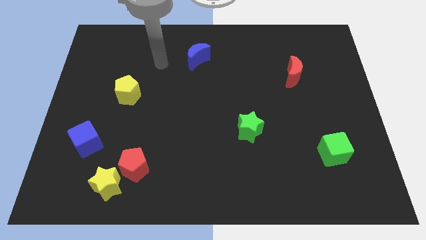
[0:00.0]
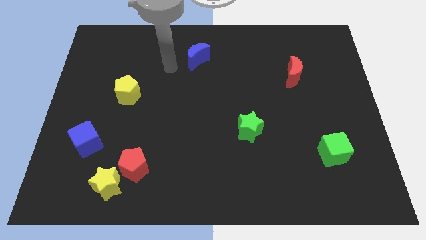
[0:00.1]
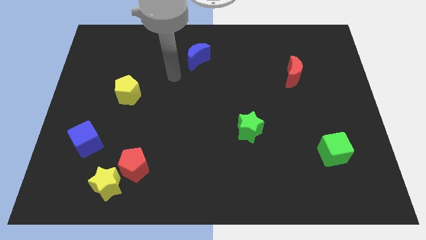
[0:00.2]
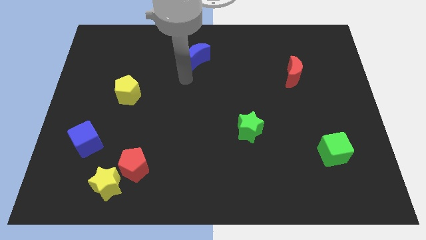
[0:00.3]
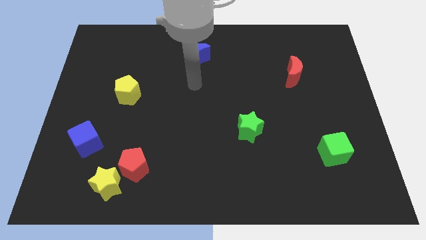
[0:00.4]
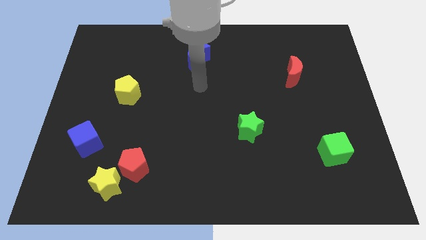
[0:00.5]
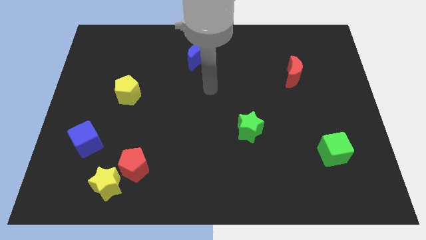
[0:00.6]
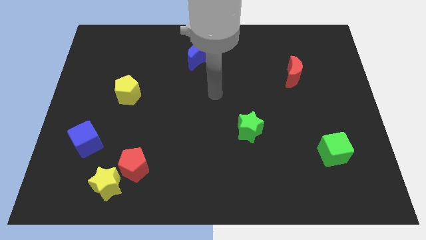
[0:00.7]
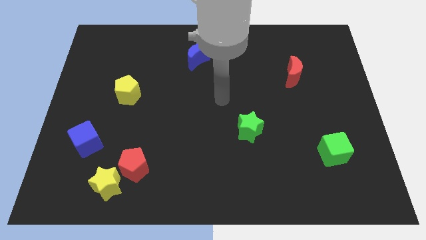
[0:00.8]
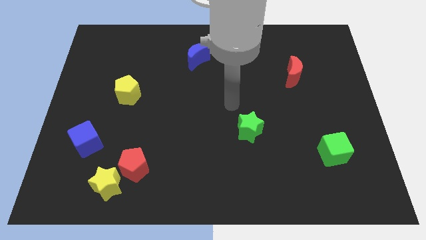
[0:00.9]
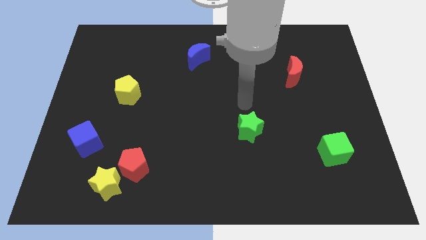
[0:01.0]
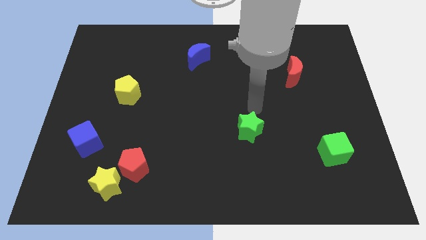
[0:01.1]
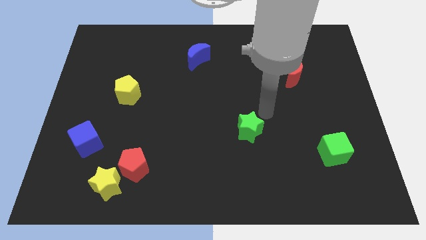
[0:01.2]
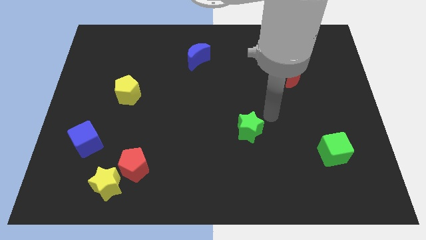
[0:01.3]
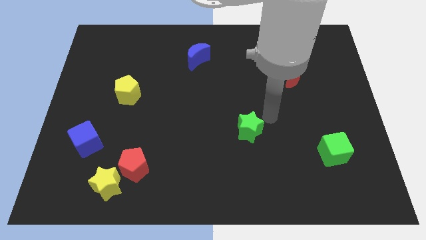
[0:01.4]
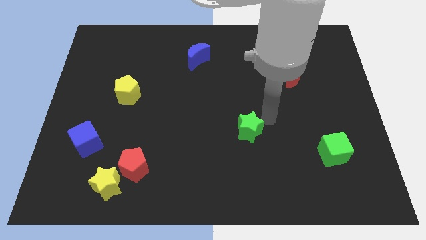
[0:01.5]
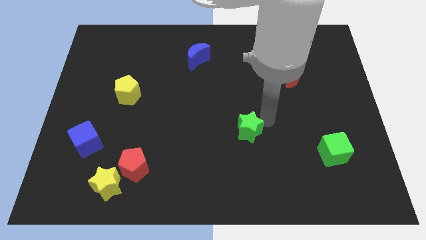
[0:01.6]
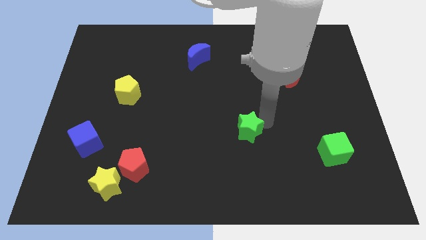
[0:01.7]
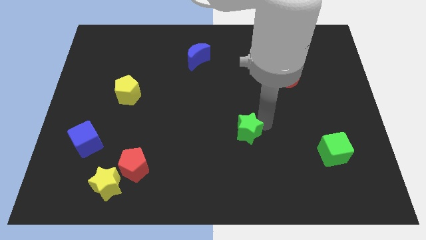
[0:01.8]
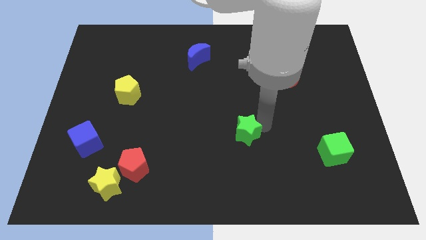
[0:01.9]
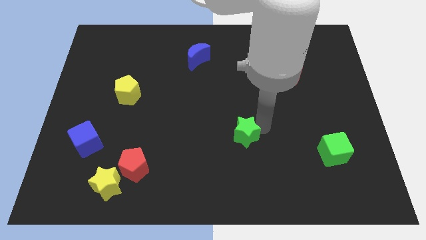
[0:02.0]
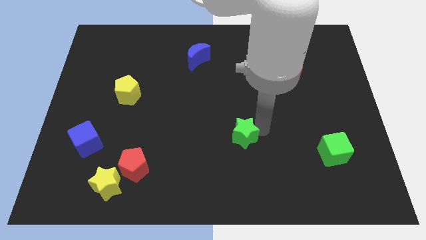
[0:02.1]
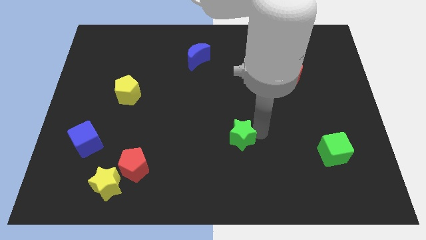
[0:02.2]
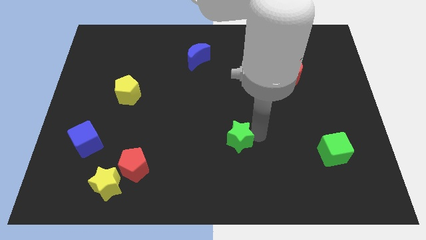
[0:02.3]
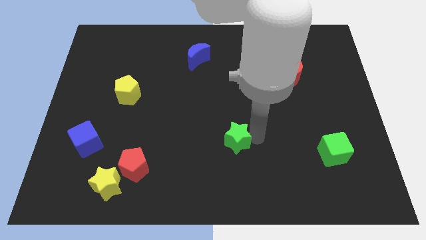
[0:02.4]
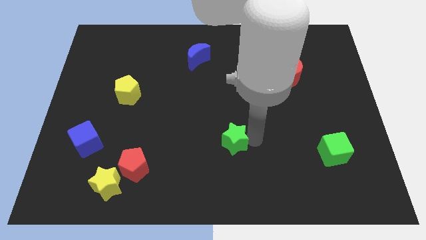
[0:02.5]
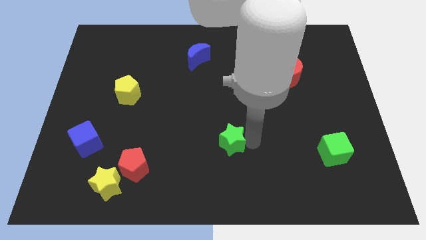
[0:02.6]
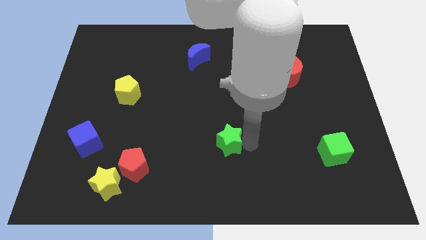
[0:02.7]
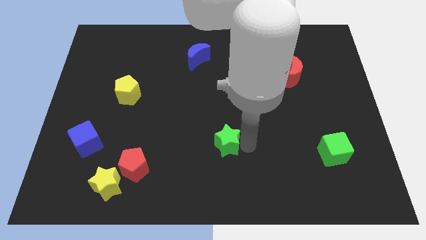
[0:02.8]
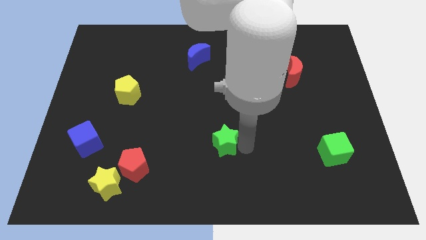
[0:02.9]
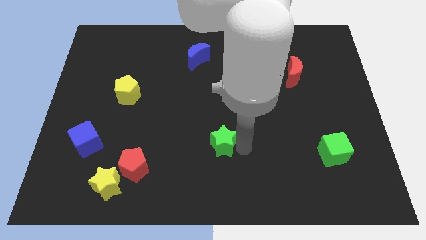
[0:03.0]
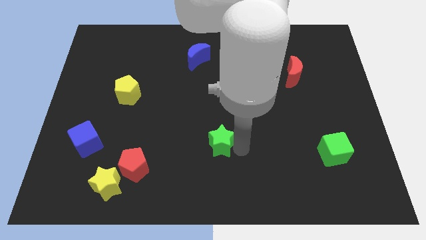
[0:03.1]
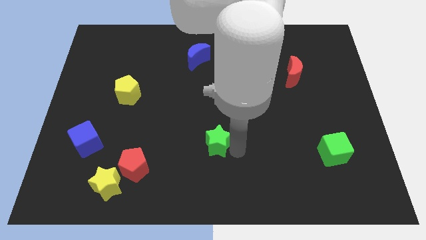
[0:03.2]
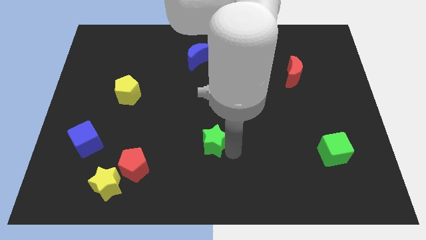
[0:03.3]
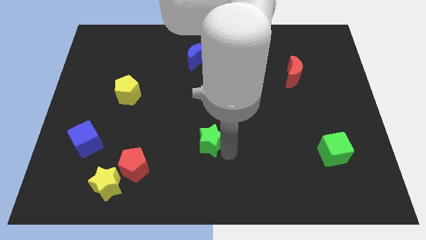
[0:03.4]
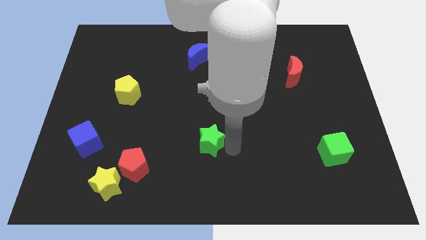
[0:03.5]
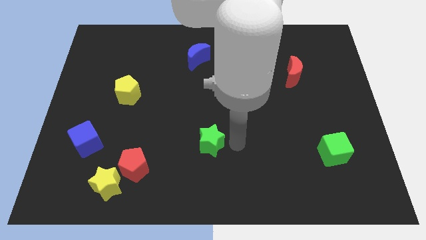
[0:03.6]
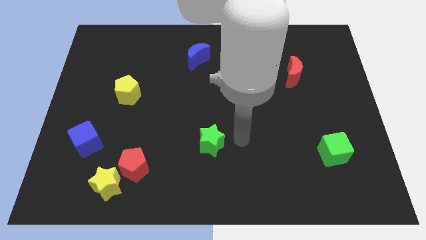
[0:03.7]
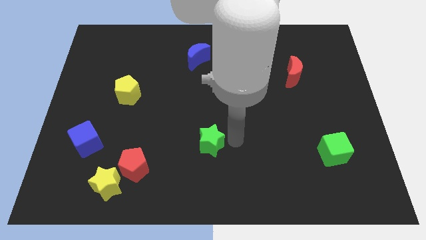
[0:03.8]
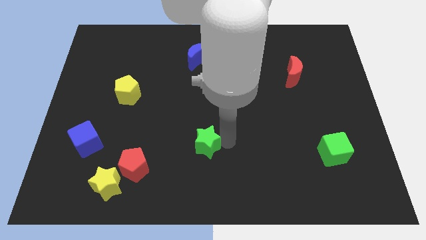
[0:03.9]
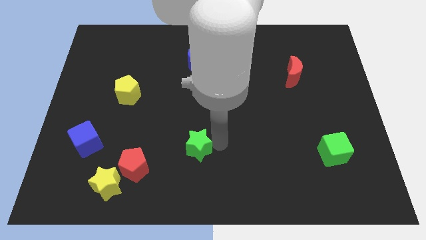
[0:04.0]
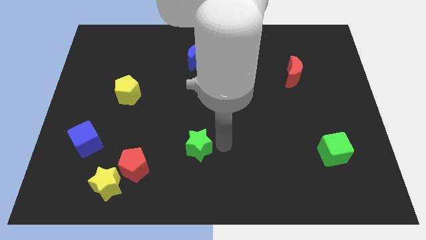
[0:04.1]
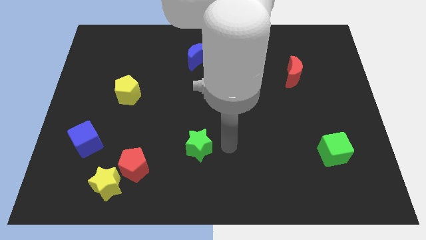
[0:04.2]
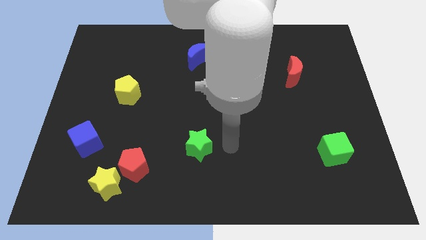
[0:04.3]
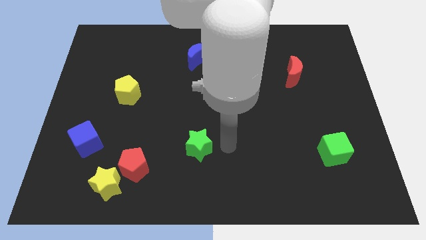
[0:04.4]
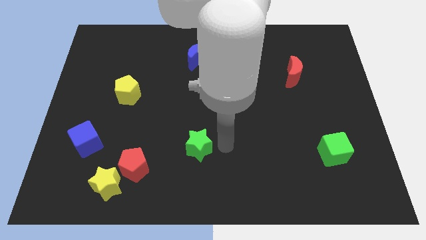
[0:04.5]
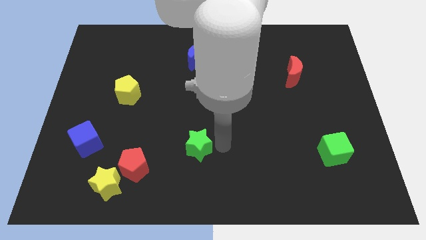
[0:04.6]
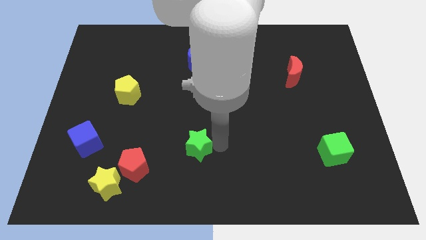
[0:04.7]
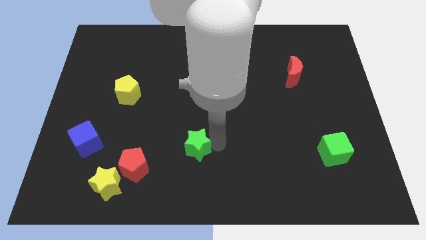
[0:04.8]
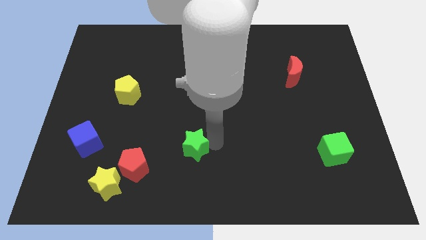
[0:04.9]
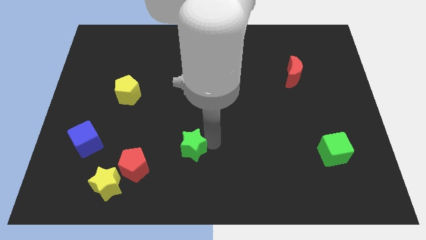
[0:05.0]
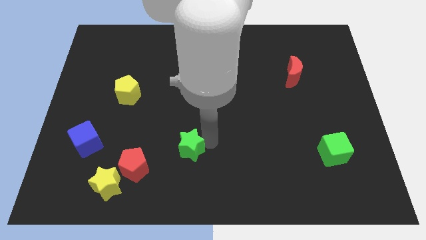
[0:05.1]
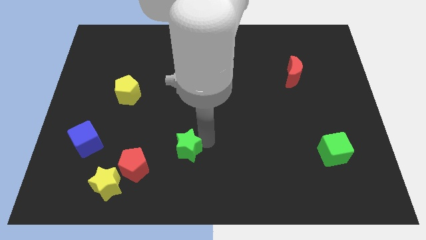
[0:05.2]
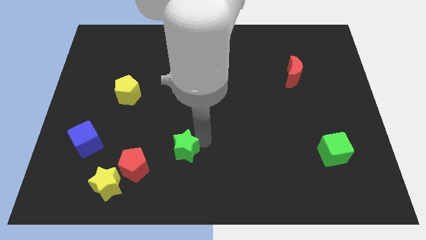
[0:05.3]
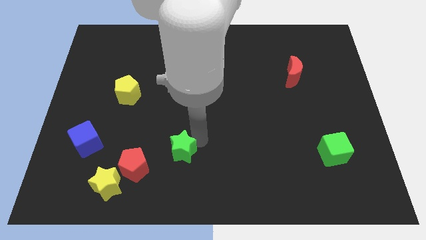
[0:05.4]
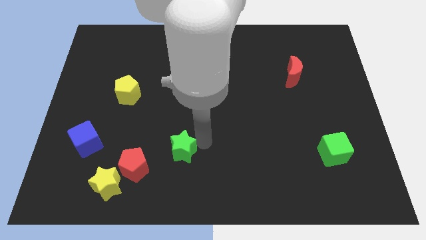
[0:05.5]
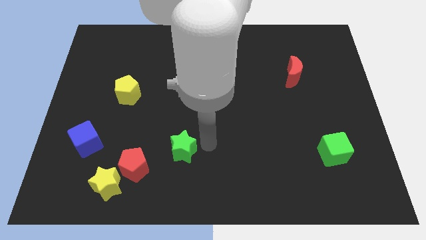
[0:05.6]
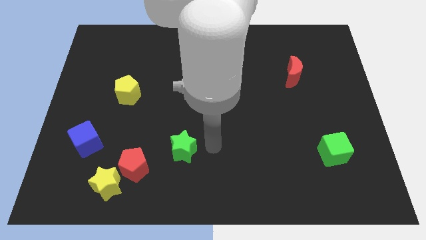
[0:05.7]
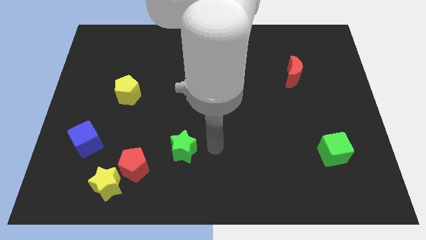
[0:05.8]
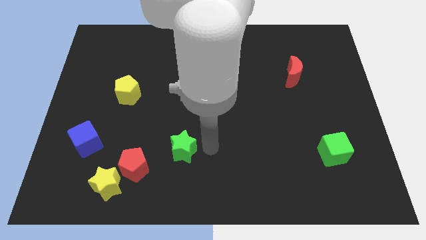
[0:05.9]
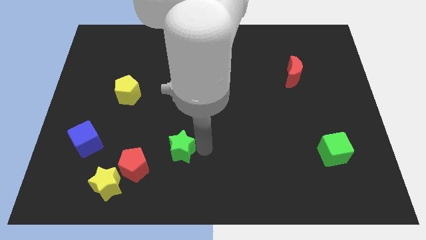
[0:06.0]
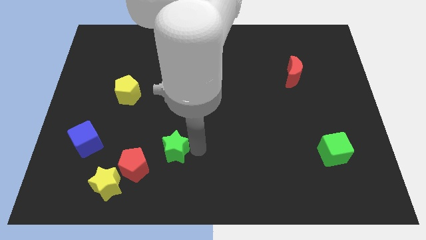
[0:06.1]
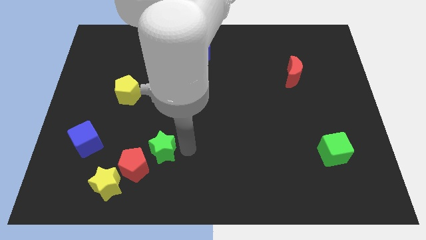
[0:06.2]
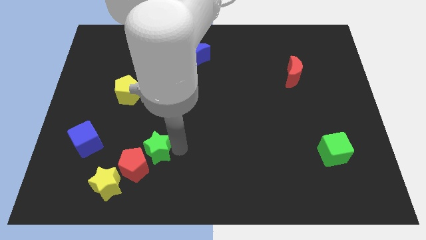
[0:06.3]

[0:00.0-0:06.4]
put the green star to the top right of the yellow star

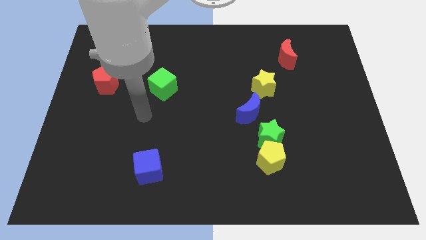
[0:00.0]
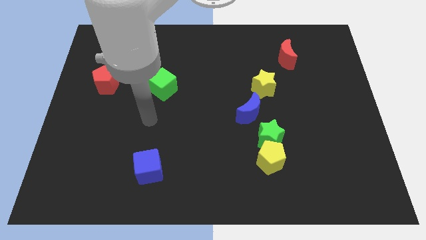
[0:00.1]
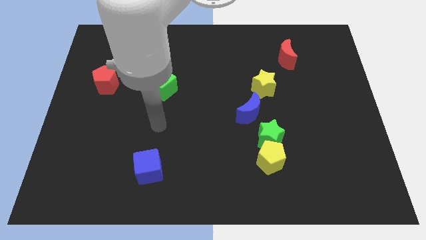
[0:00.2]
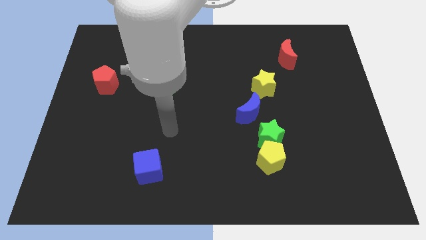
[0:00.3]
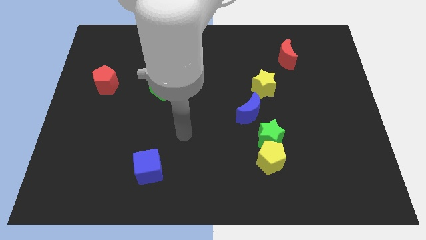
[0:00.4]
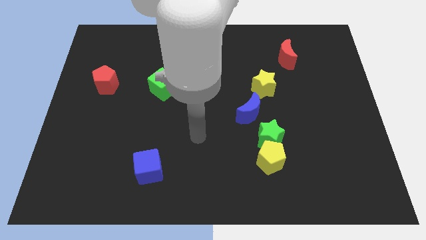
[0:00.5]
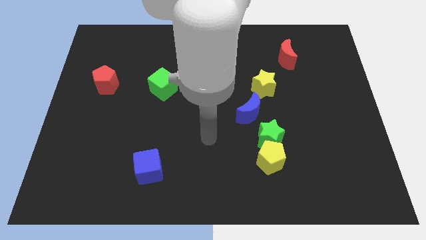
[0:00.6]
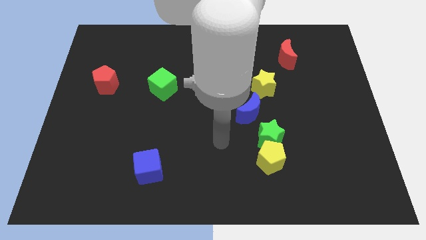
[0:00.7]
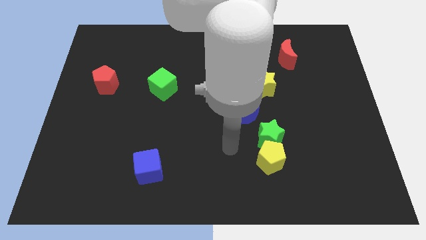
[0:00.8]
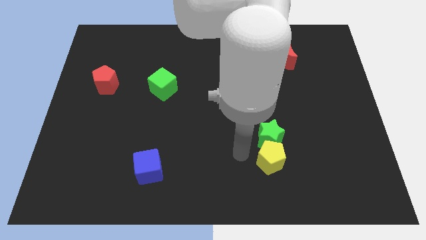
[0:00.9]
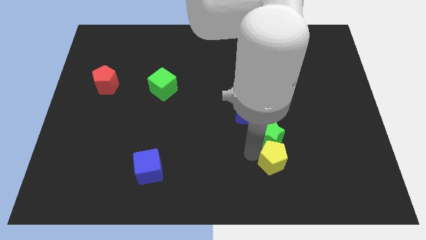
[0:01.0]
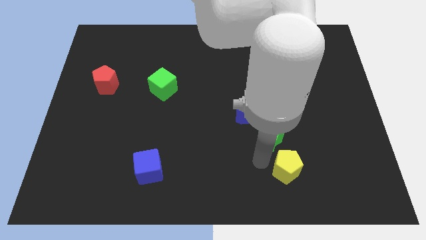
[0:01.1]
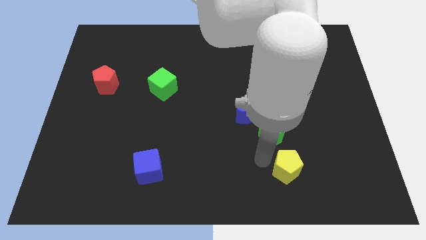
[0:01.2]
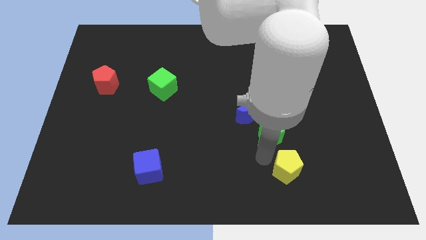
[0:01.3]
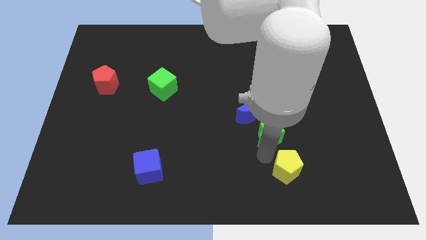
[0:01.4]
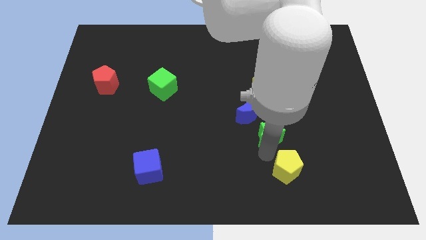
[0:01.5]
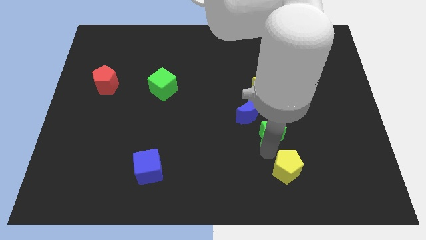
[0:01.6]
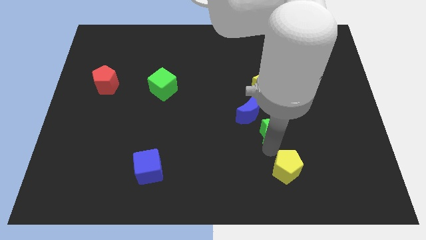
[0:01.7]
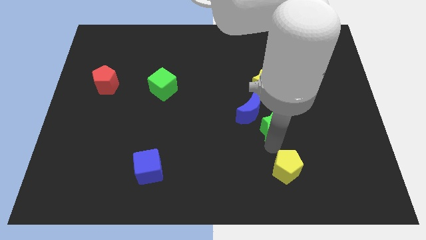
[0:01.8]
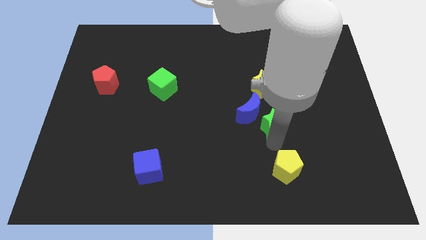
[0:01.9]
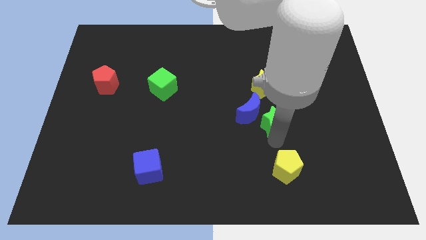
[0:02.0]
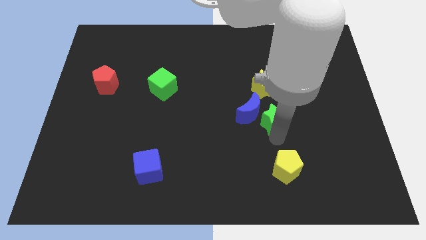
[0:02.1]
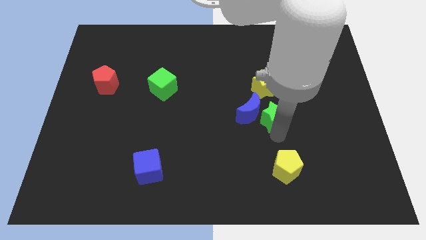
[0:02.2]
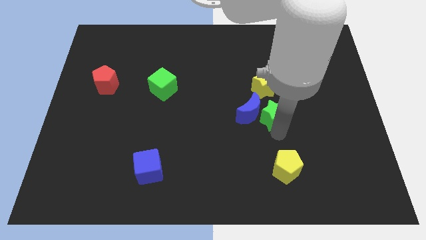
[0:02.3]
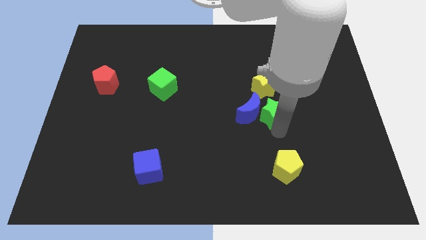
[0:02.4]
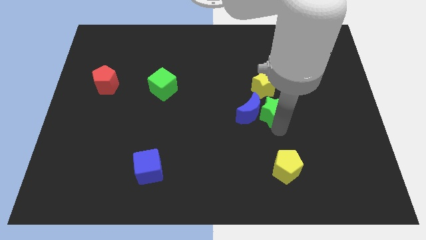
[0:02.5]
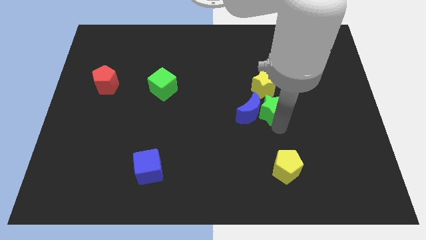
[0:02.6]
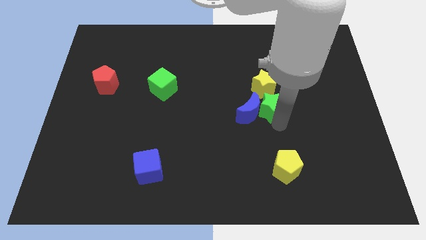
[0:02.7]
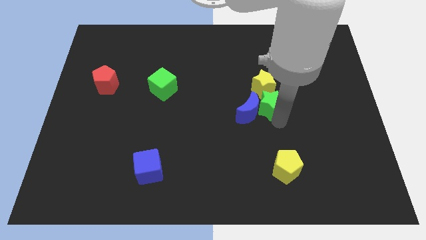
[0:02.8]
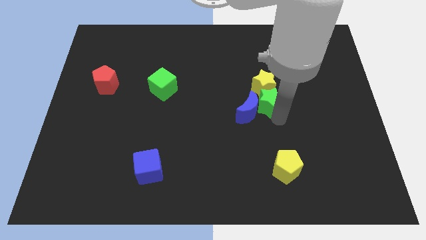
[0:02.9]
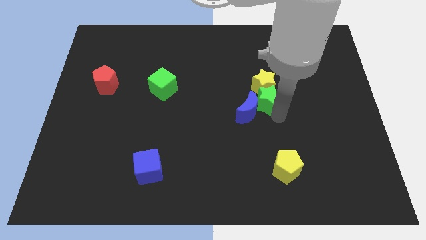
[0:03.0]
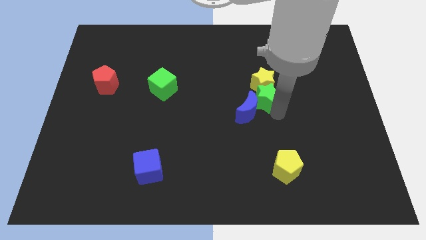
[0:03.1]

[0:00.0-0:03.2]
slide the green star above the blue moon
